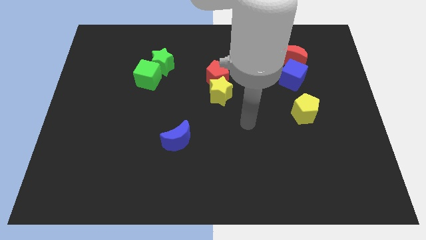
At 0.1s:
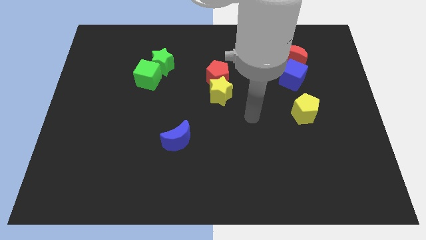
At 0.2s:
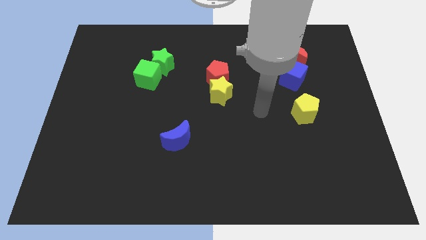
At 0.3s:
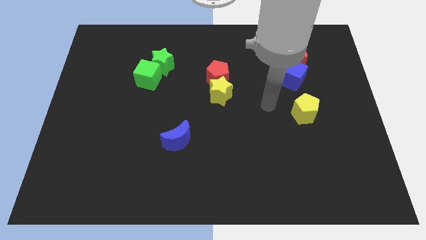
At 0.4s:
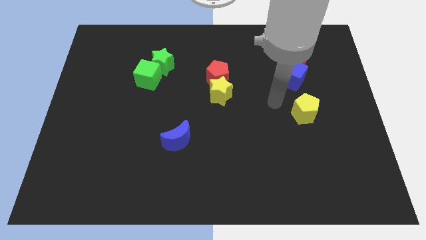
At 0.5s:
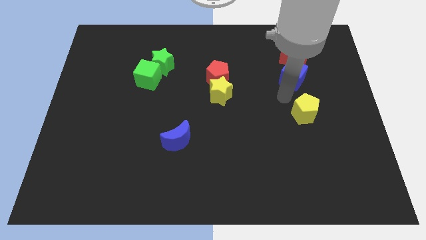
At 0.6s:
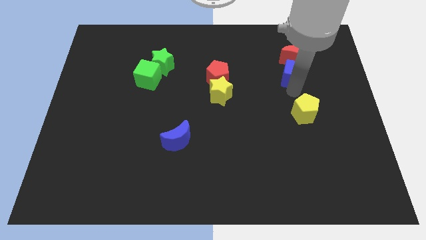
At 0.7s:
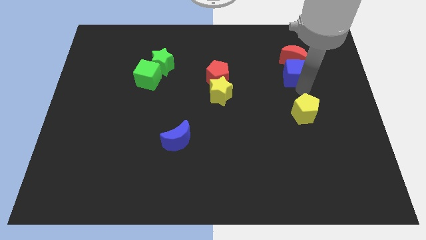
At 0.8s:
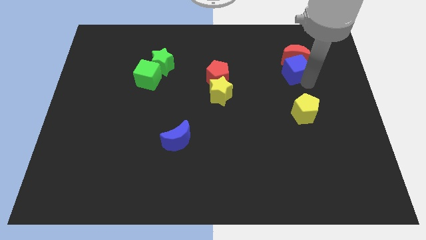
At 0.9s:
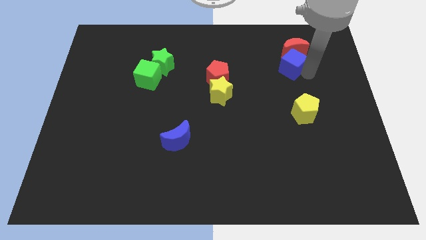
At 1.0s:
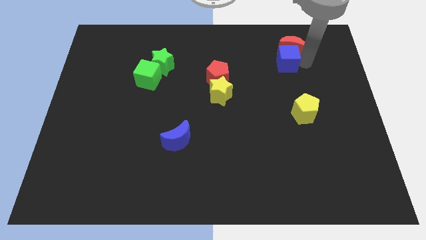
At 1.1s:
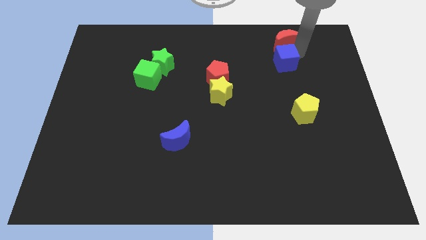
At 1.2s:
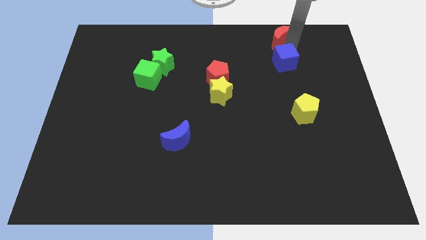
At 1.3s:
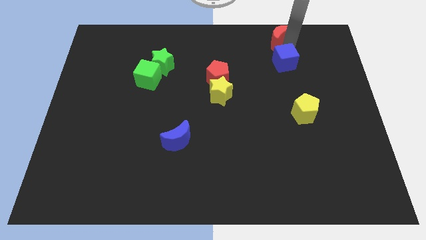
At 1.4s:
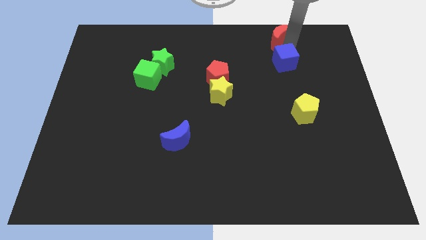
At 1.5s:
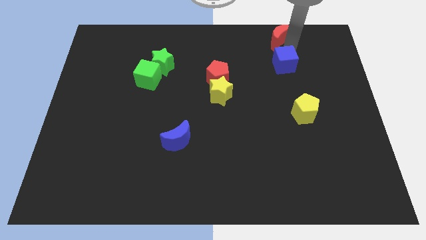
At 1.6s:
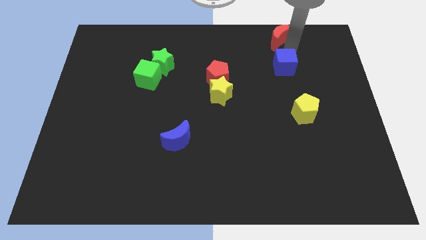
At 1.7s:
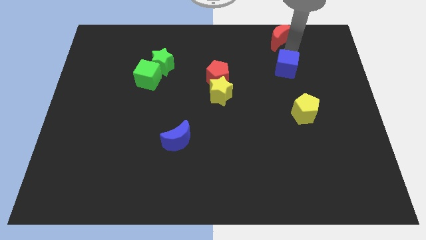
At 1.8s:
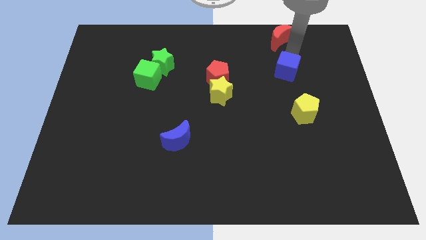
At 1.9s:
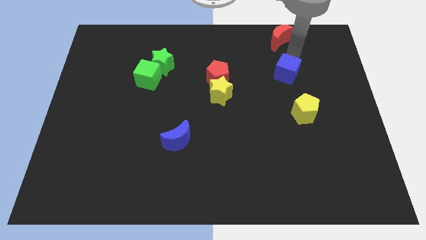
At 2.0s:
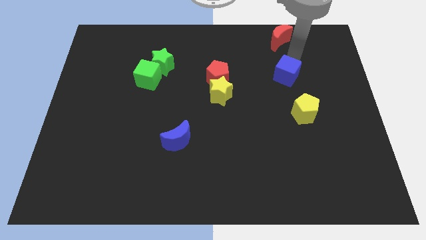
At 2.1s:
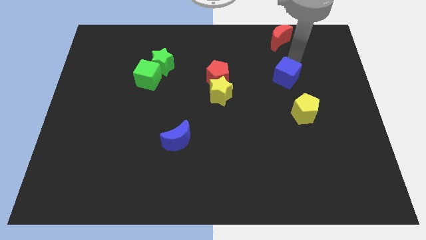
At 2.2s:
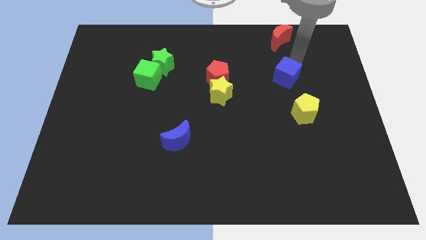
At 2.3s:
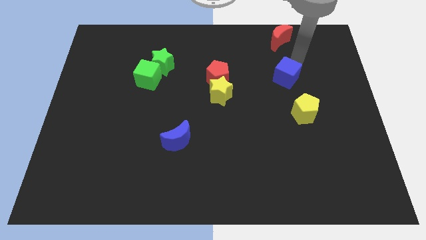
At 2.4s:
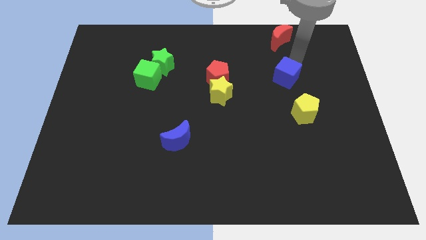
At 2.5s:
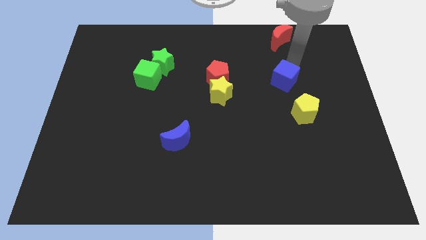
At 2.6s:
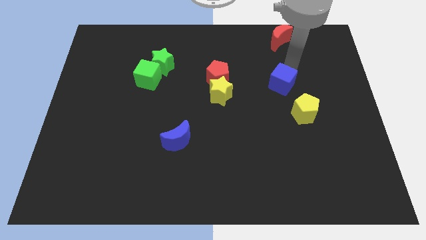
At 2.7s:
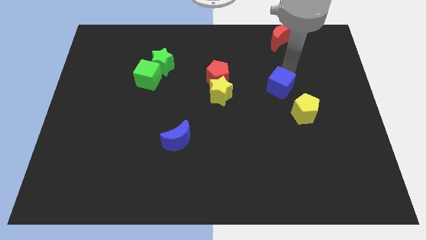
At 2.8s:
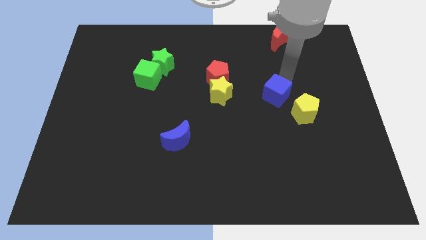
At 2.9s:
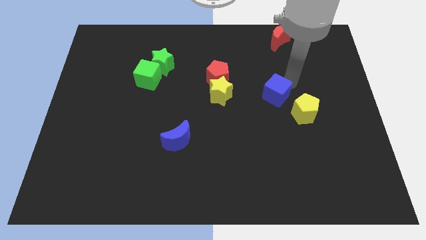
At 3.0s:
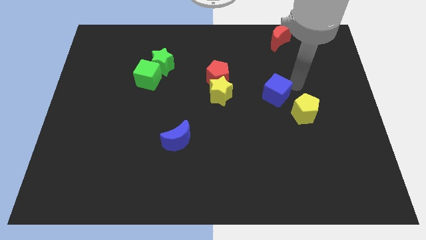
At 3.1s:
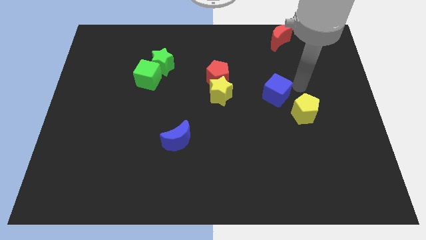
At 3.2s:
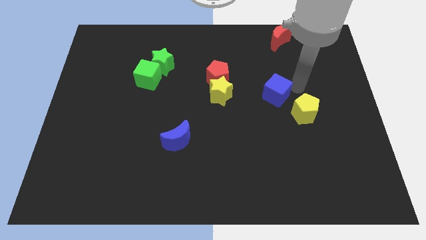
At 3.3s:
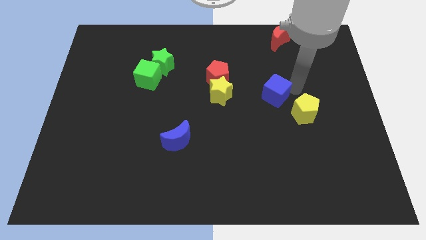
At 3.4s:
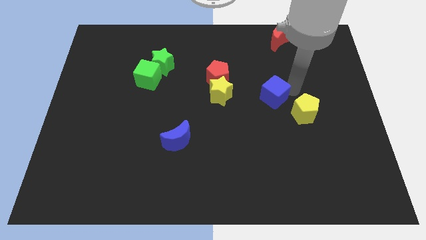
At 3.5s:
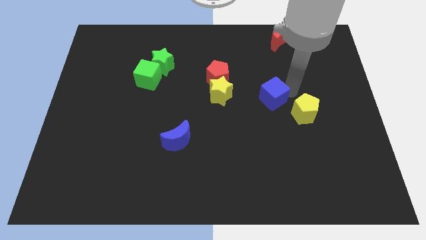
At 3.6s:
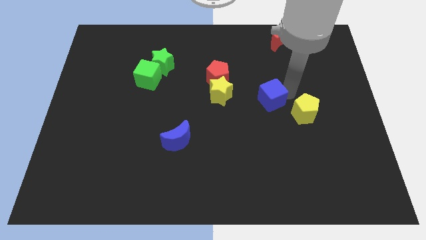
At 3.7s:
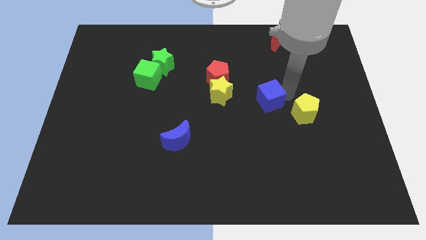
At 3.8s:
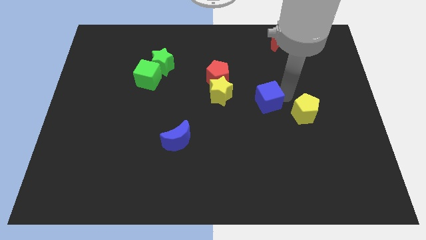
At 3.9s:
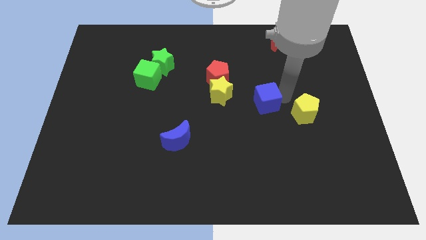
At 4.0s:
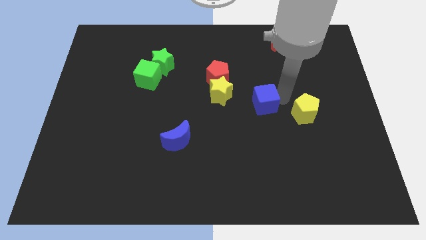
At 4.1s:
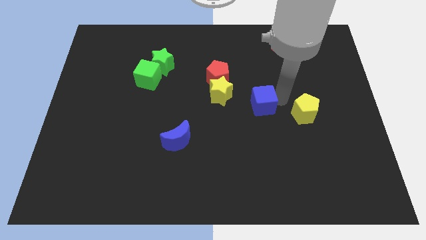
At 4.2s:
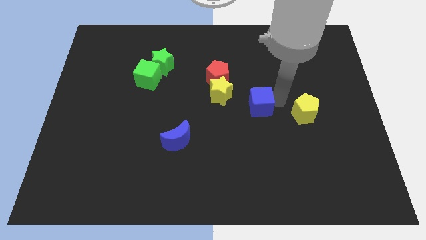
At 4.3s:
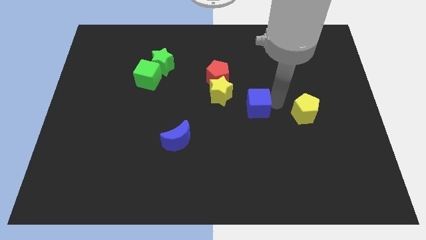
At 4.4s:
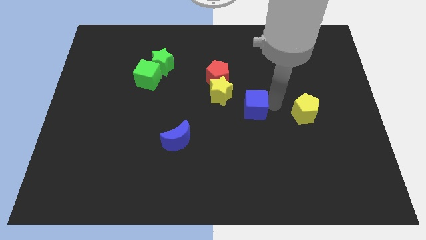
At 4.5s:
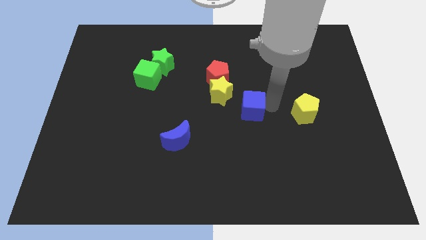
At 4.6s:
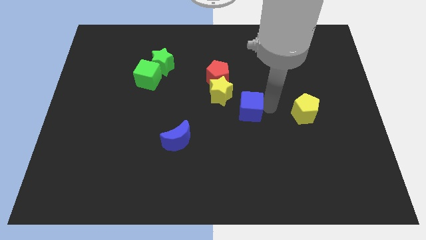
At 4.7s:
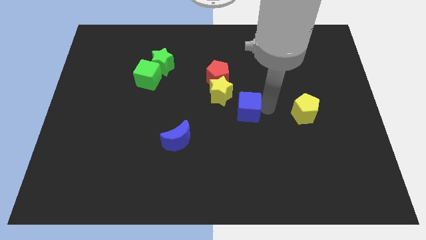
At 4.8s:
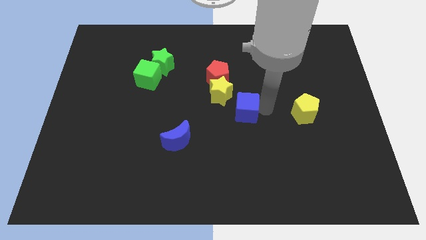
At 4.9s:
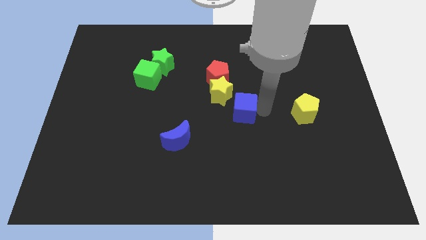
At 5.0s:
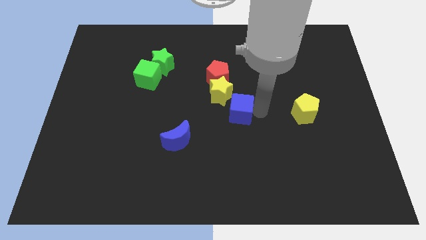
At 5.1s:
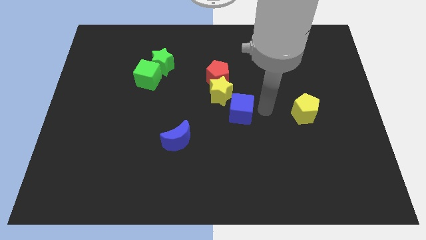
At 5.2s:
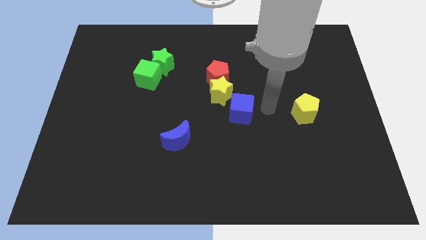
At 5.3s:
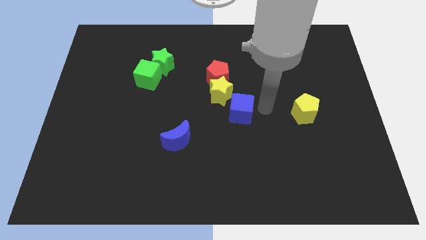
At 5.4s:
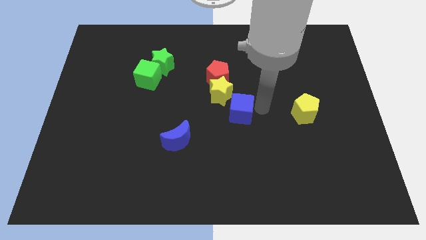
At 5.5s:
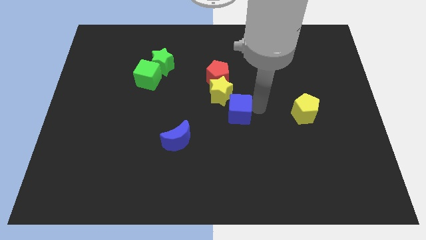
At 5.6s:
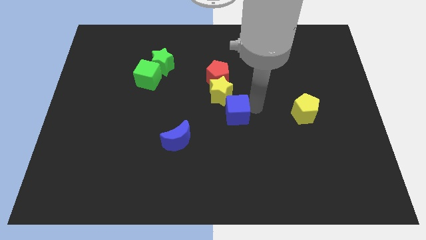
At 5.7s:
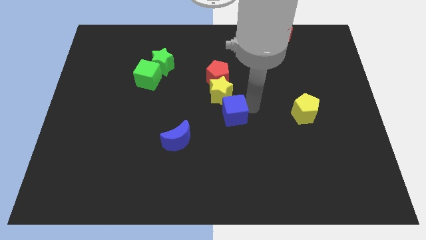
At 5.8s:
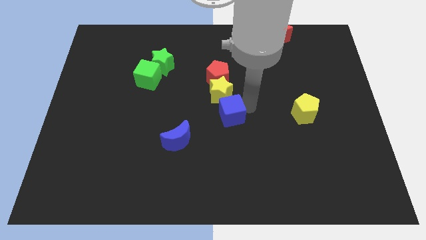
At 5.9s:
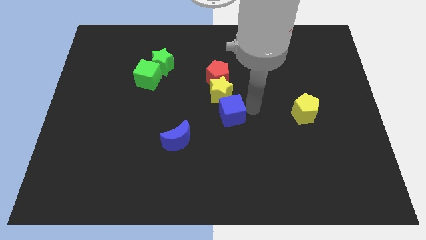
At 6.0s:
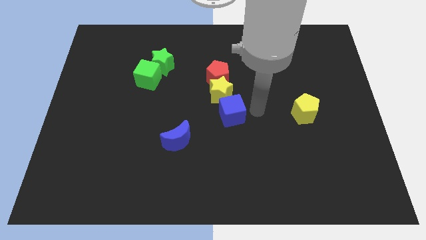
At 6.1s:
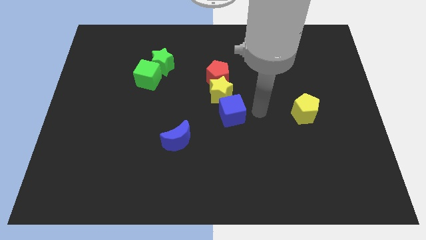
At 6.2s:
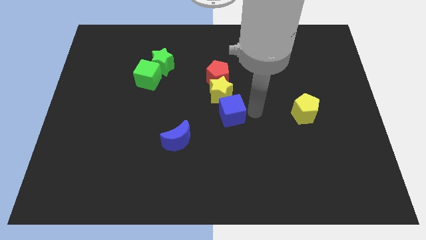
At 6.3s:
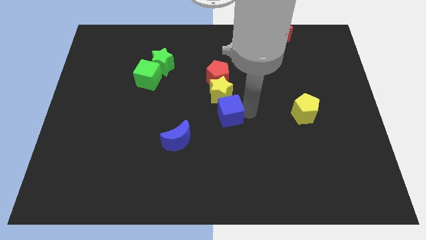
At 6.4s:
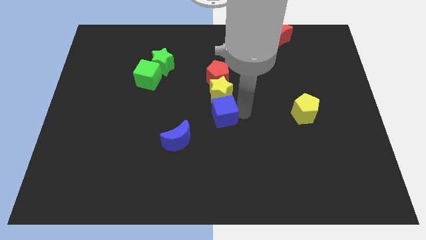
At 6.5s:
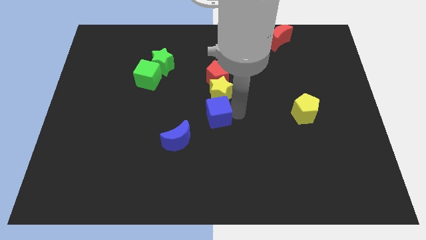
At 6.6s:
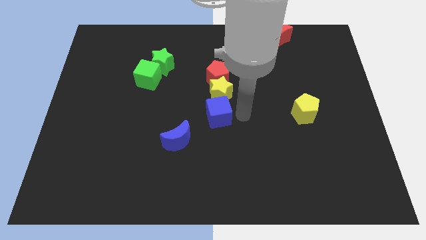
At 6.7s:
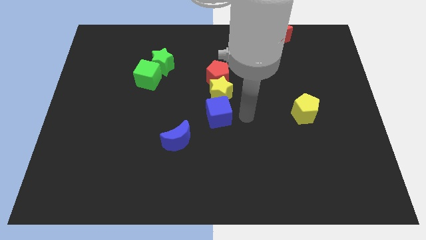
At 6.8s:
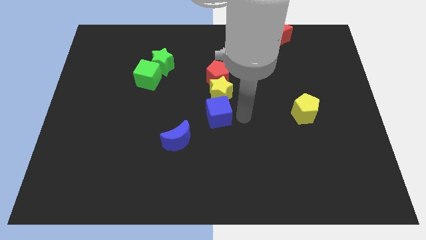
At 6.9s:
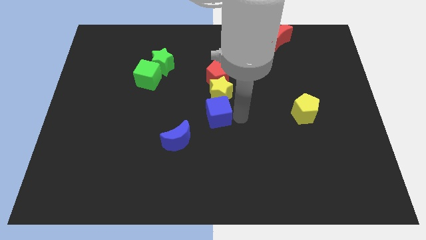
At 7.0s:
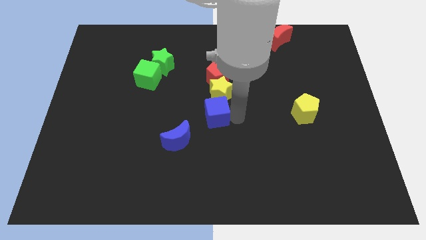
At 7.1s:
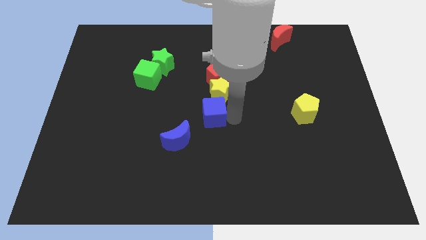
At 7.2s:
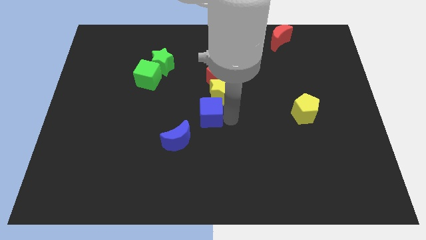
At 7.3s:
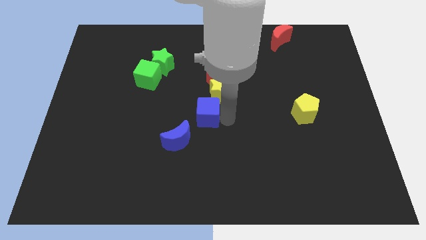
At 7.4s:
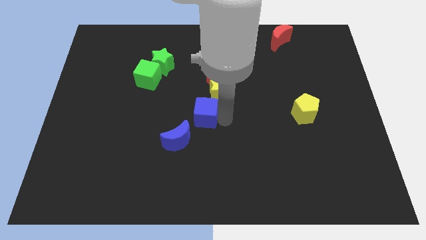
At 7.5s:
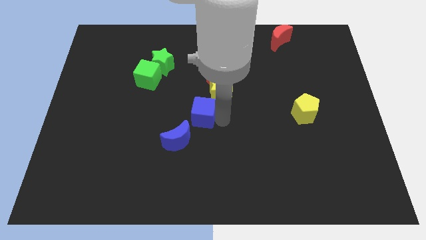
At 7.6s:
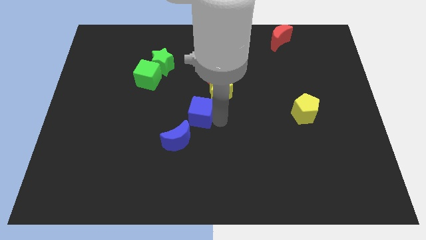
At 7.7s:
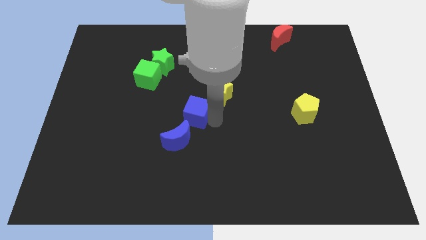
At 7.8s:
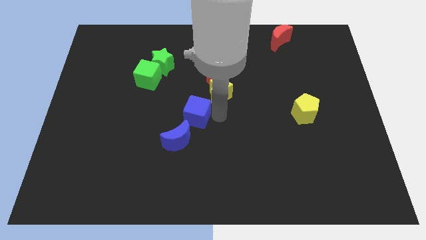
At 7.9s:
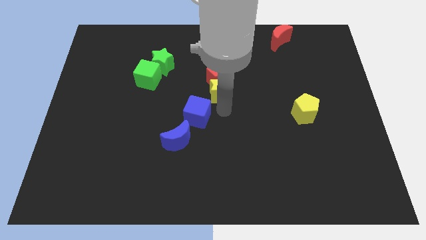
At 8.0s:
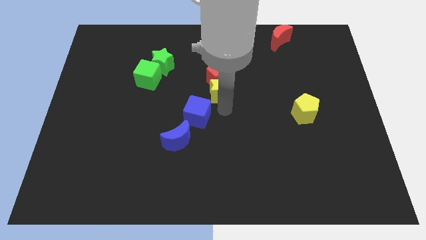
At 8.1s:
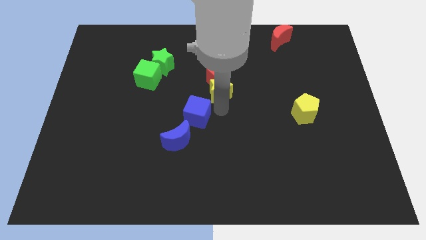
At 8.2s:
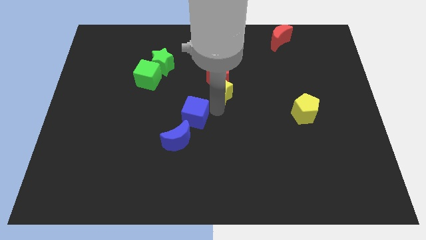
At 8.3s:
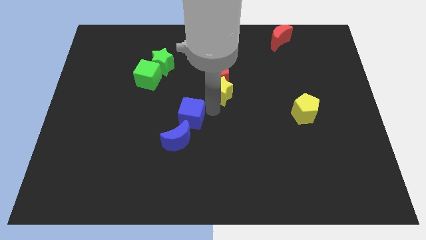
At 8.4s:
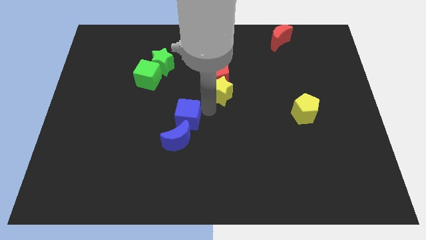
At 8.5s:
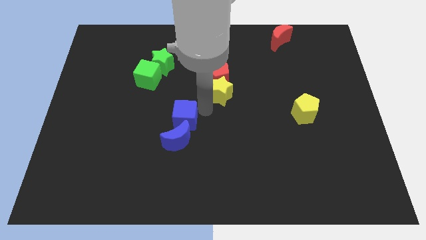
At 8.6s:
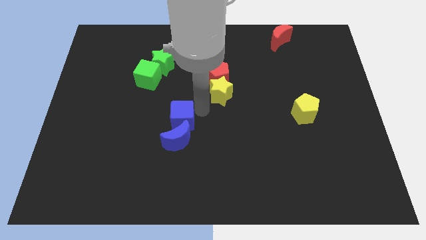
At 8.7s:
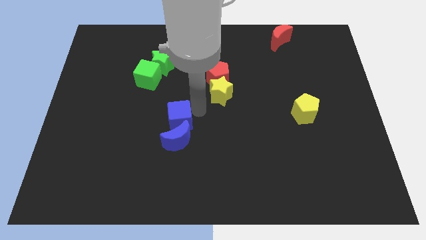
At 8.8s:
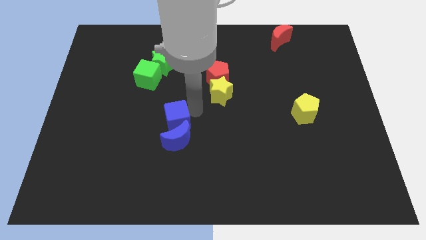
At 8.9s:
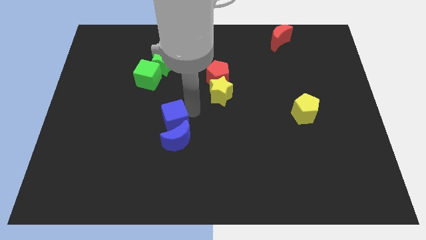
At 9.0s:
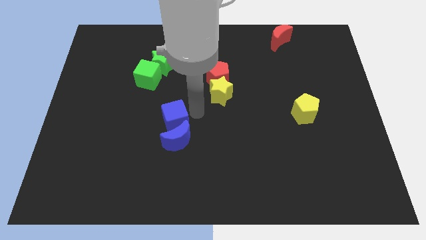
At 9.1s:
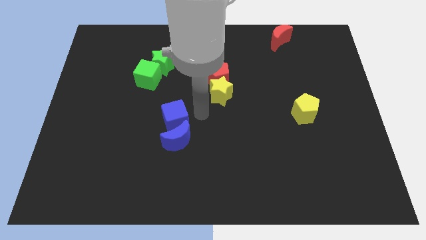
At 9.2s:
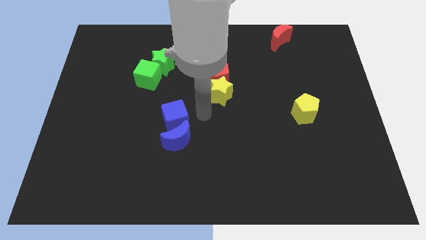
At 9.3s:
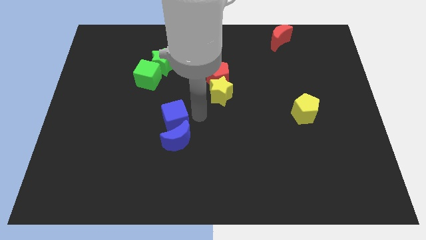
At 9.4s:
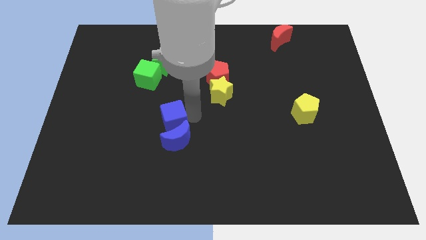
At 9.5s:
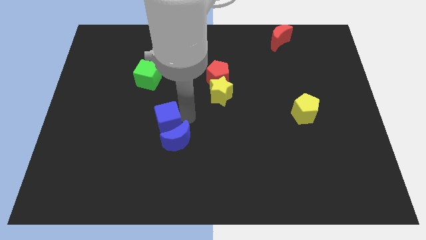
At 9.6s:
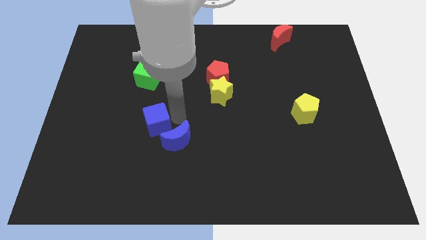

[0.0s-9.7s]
slide the blue cube left of the blue moon
